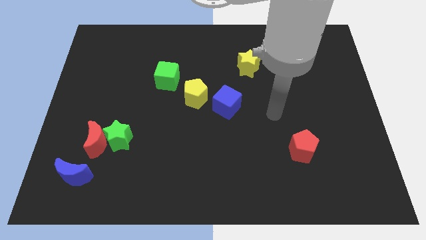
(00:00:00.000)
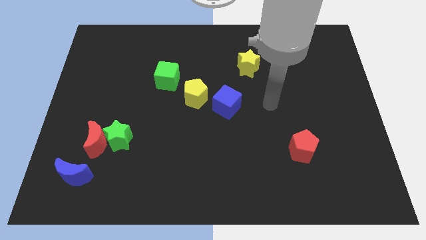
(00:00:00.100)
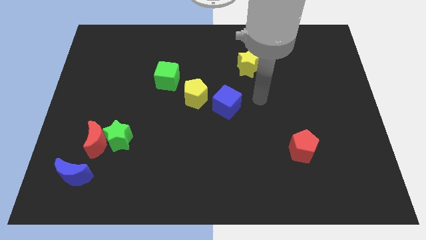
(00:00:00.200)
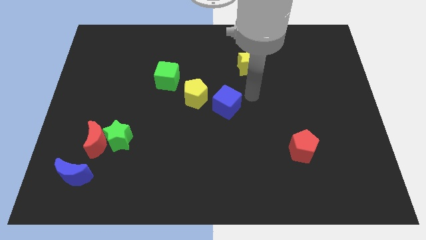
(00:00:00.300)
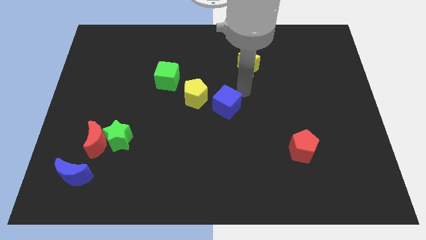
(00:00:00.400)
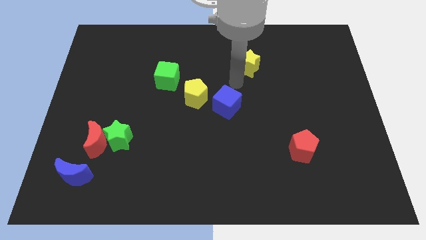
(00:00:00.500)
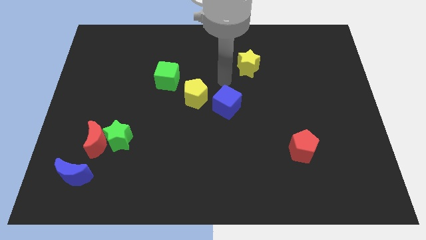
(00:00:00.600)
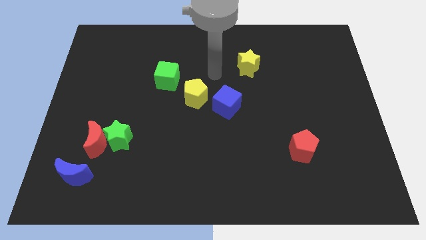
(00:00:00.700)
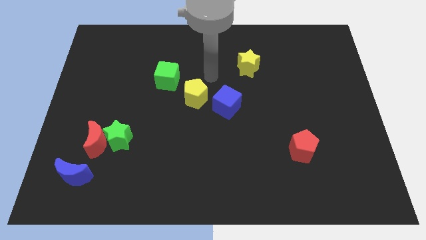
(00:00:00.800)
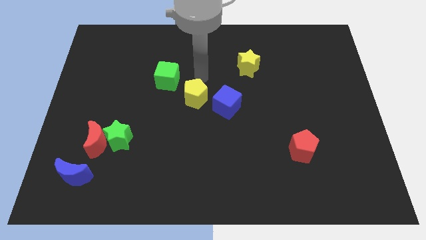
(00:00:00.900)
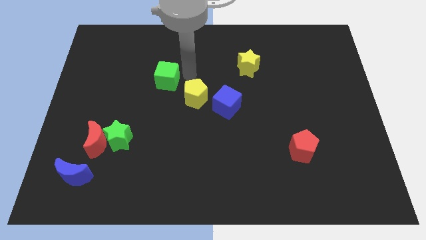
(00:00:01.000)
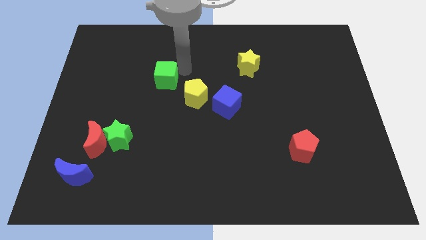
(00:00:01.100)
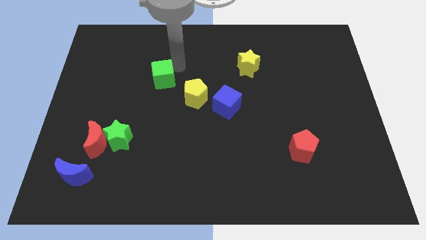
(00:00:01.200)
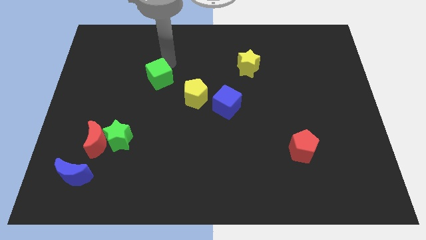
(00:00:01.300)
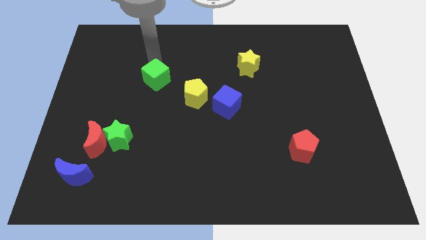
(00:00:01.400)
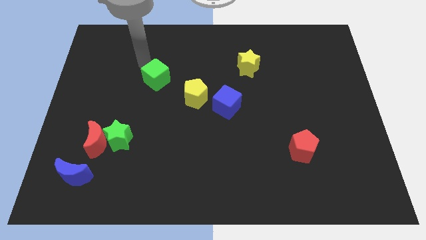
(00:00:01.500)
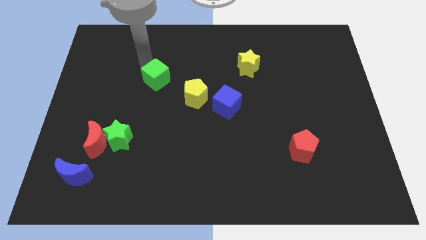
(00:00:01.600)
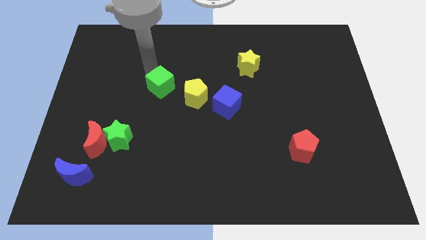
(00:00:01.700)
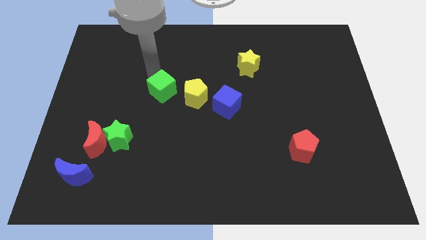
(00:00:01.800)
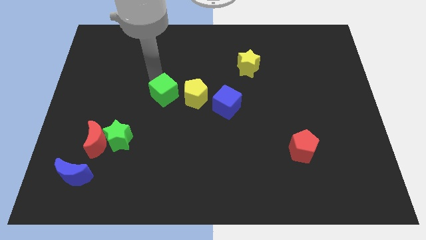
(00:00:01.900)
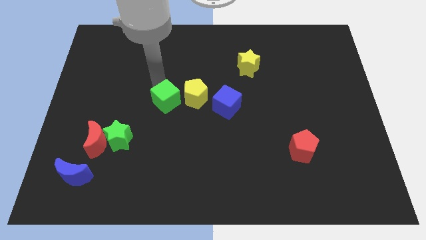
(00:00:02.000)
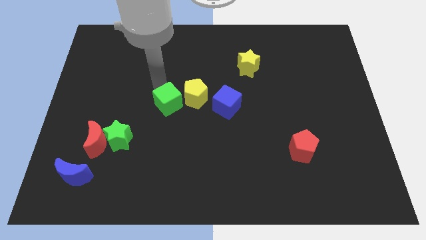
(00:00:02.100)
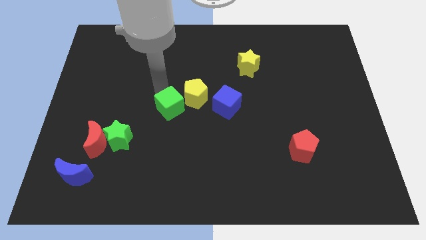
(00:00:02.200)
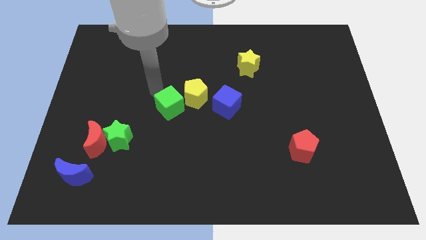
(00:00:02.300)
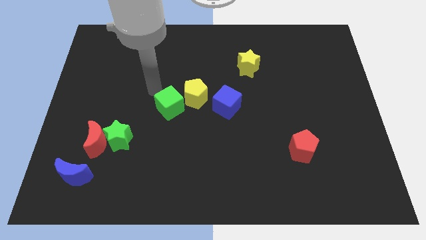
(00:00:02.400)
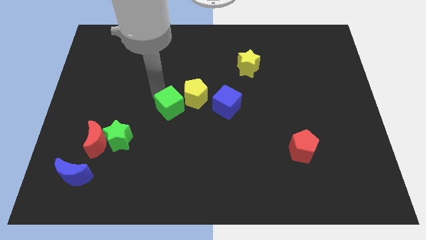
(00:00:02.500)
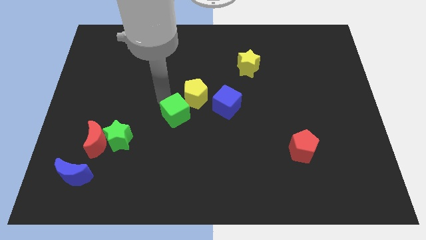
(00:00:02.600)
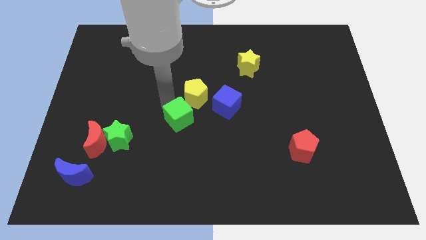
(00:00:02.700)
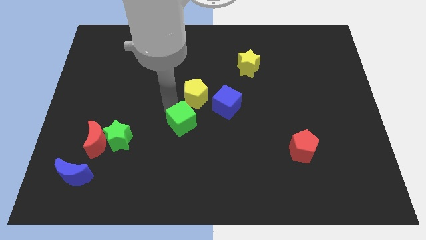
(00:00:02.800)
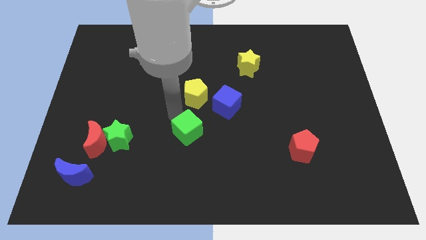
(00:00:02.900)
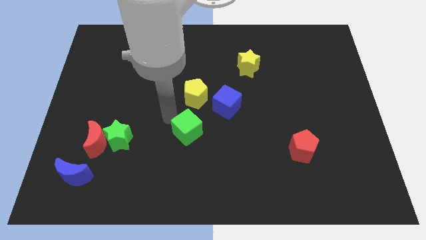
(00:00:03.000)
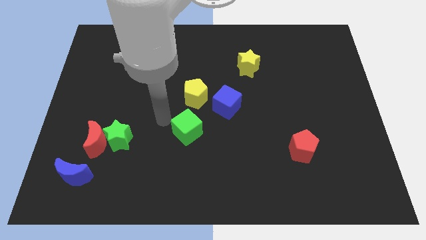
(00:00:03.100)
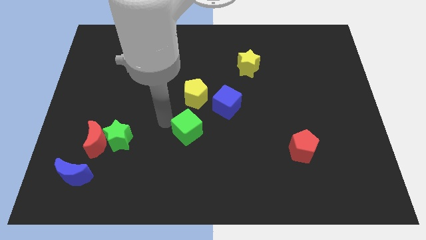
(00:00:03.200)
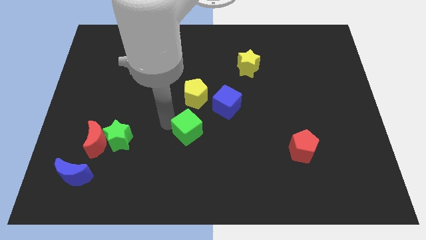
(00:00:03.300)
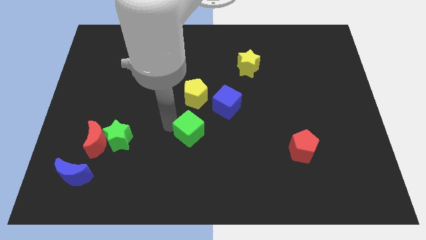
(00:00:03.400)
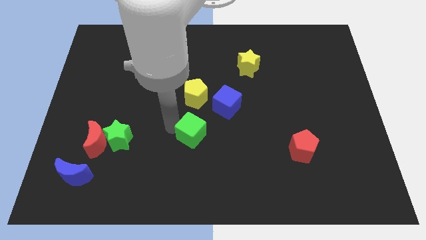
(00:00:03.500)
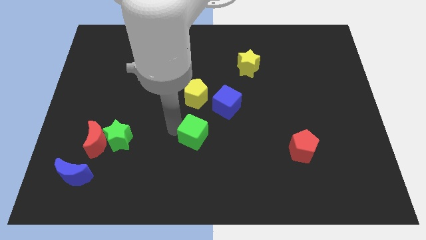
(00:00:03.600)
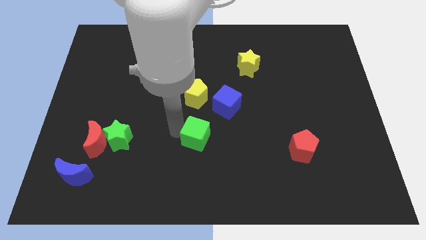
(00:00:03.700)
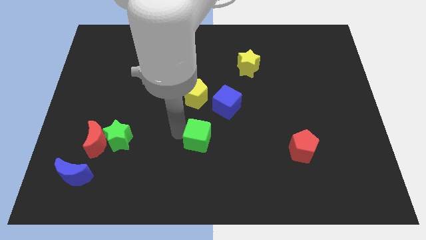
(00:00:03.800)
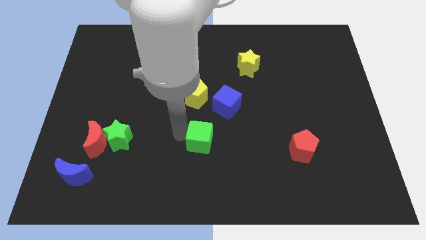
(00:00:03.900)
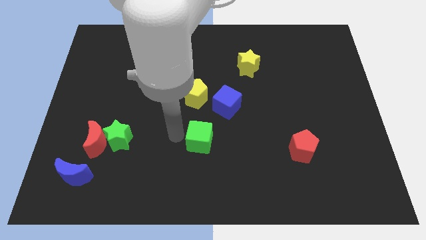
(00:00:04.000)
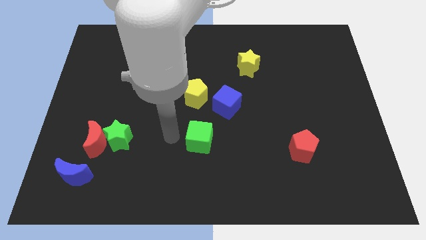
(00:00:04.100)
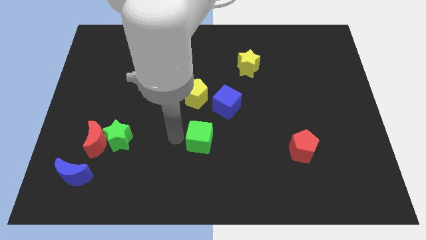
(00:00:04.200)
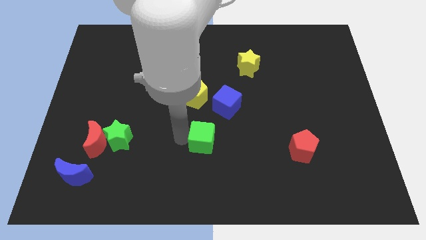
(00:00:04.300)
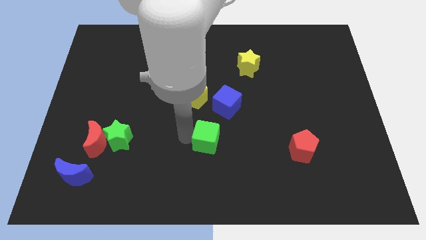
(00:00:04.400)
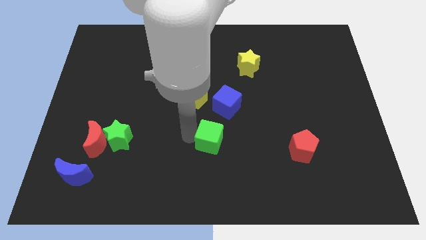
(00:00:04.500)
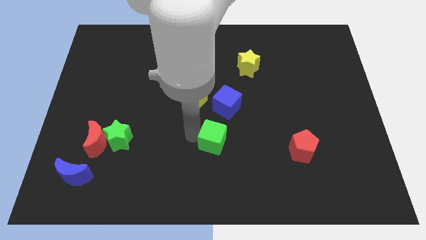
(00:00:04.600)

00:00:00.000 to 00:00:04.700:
push the green cube diagonally downwards and right

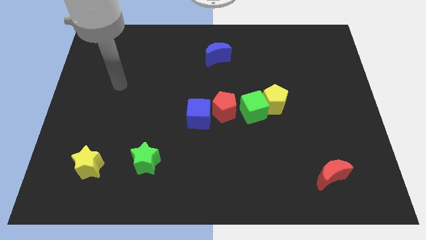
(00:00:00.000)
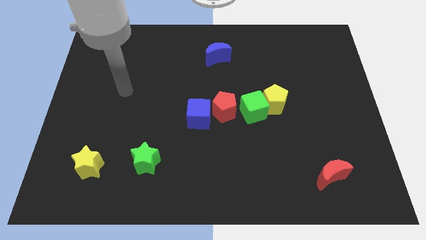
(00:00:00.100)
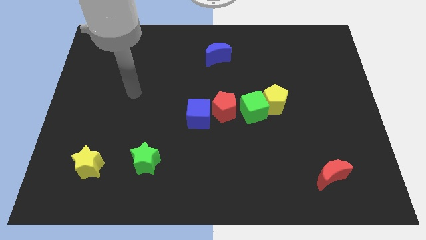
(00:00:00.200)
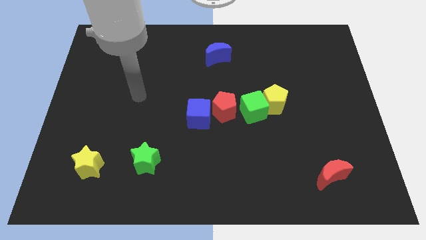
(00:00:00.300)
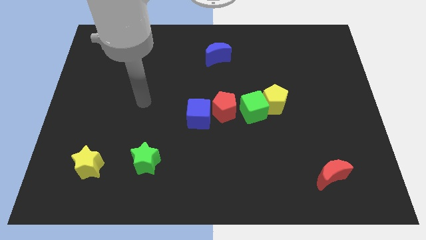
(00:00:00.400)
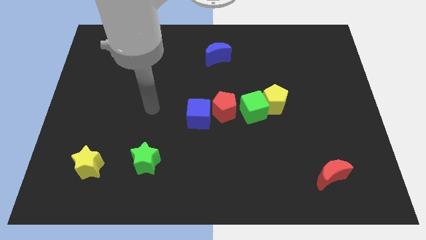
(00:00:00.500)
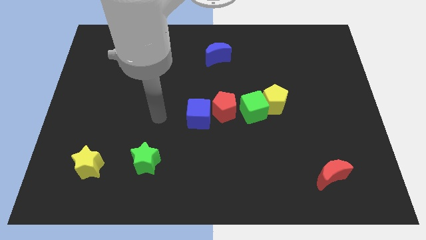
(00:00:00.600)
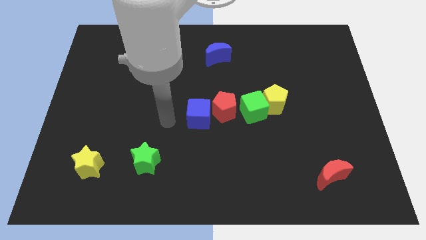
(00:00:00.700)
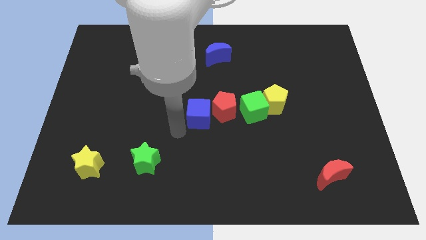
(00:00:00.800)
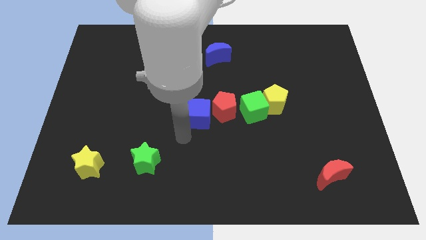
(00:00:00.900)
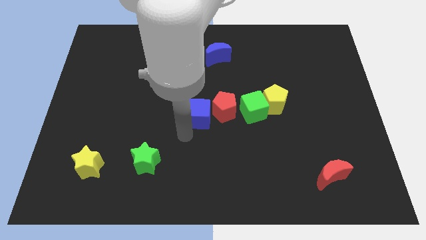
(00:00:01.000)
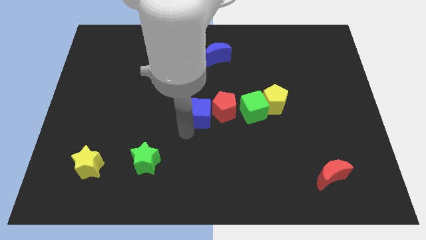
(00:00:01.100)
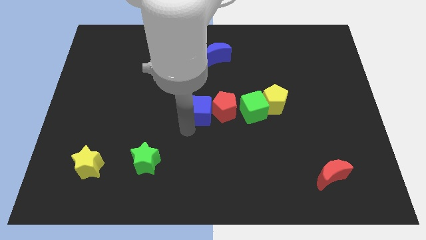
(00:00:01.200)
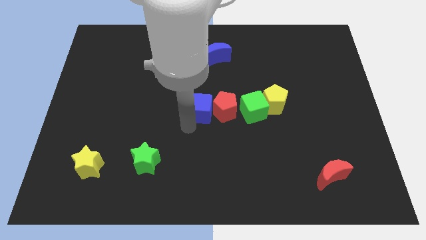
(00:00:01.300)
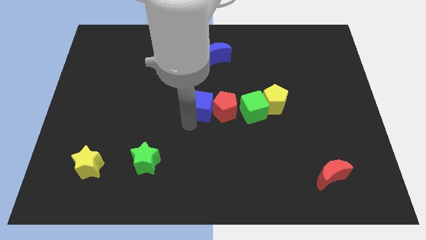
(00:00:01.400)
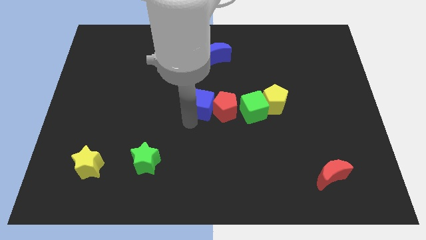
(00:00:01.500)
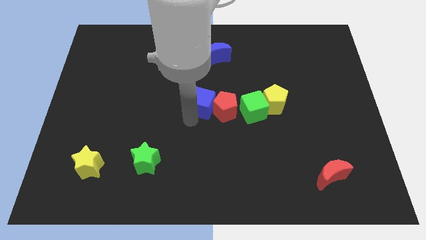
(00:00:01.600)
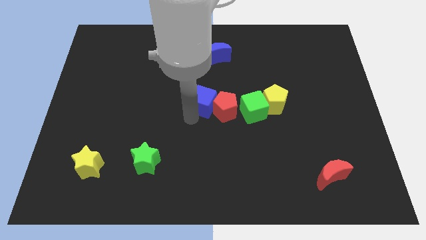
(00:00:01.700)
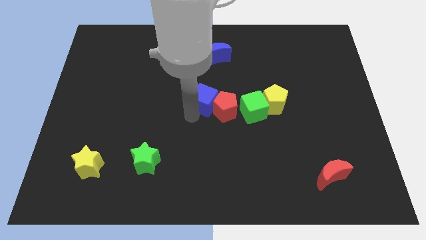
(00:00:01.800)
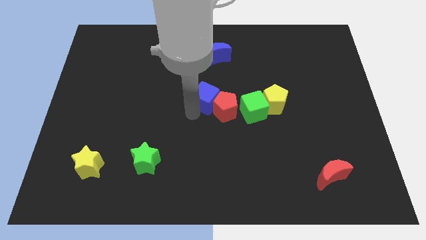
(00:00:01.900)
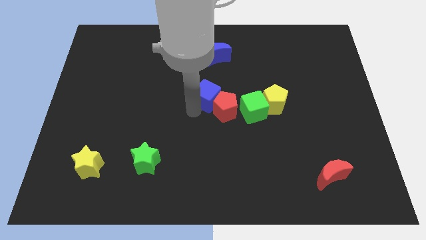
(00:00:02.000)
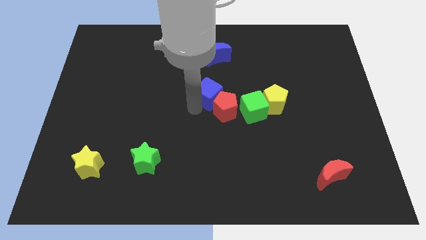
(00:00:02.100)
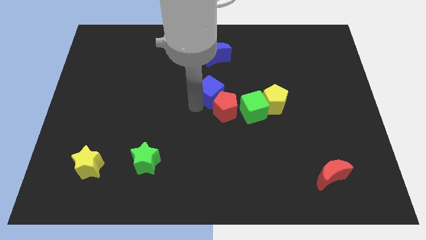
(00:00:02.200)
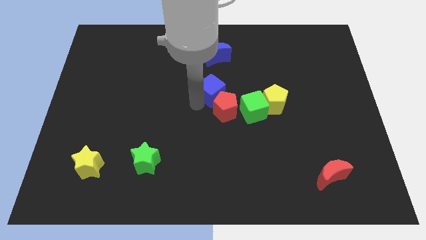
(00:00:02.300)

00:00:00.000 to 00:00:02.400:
push the blue cube diagonally upwards and right a bit

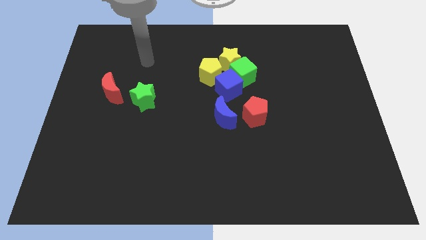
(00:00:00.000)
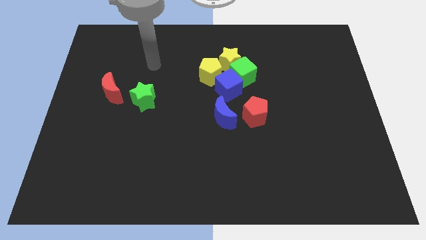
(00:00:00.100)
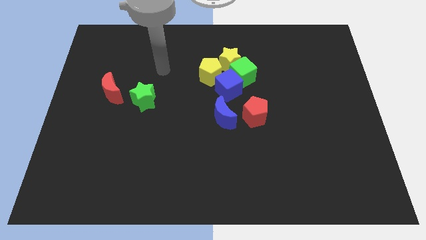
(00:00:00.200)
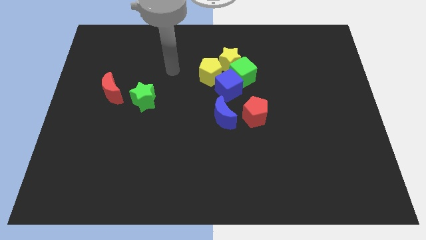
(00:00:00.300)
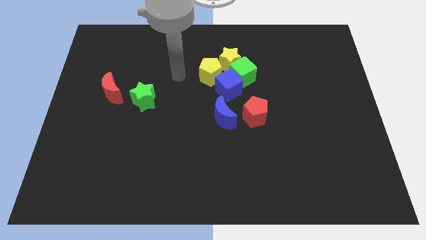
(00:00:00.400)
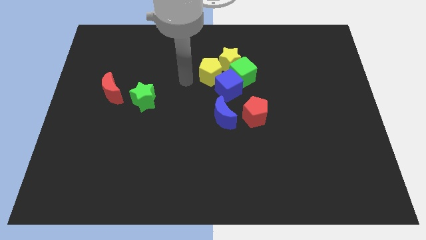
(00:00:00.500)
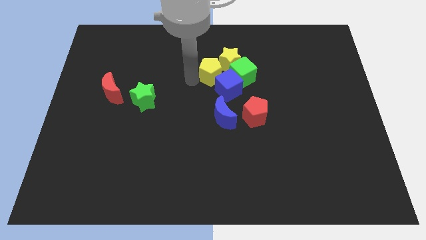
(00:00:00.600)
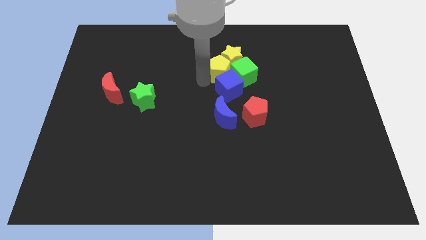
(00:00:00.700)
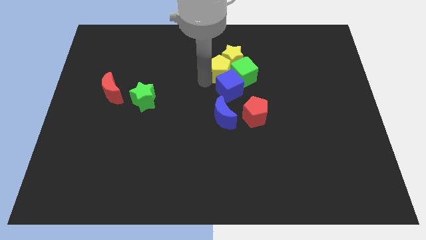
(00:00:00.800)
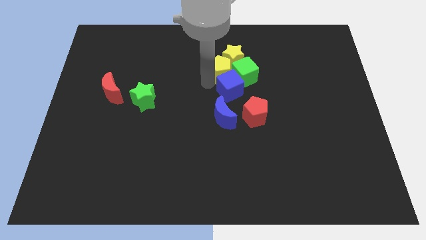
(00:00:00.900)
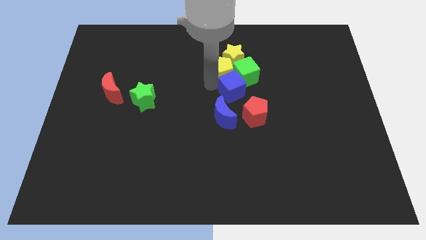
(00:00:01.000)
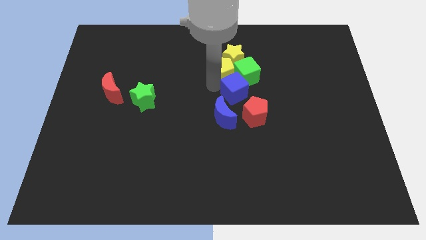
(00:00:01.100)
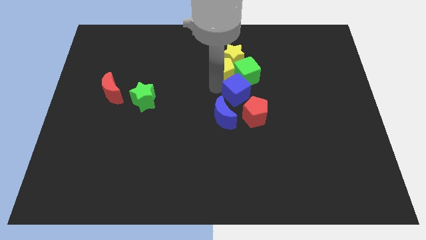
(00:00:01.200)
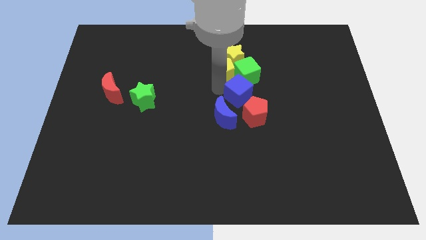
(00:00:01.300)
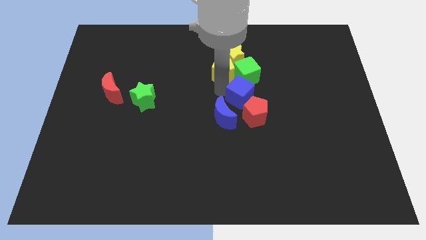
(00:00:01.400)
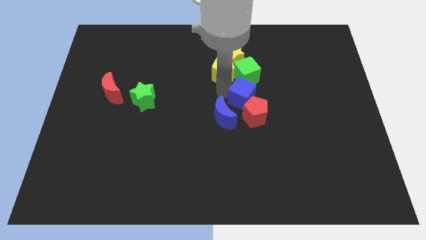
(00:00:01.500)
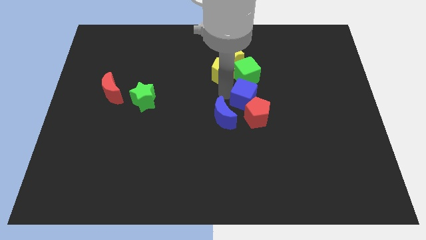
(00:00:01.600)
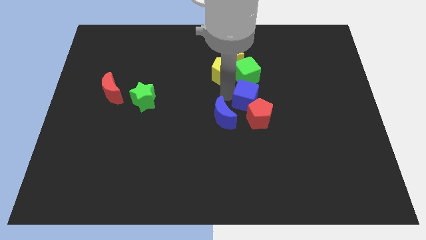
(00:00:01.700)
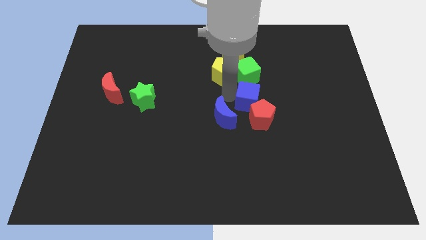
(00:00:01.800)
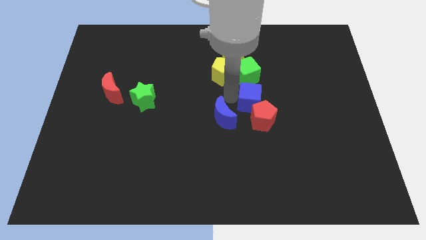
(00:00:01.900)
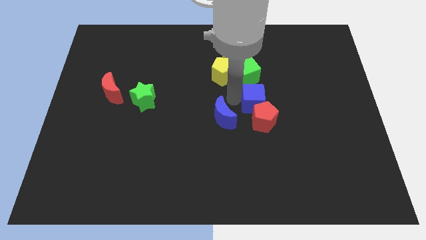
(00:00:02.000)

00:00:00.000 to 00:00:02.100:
slide the blue cube downwards and right a little
